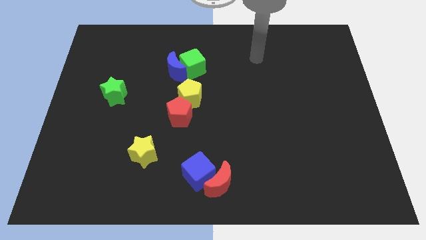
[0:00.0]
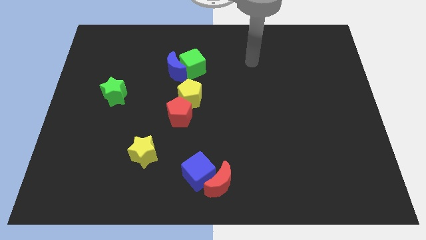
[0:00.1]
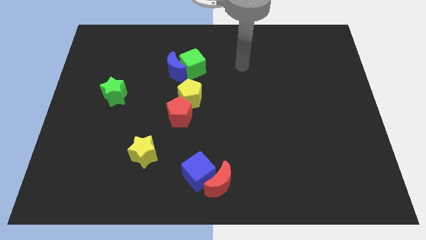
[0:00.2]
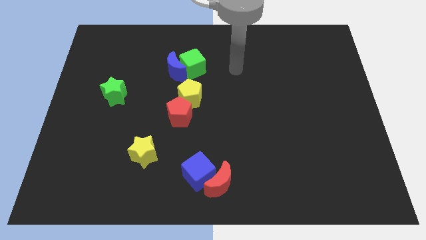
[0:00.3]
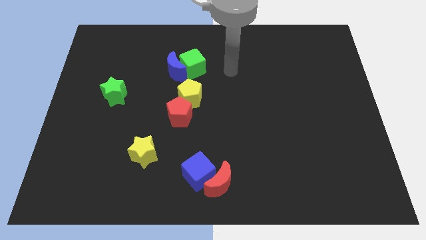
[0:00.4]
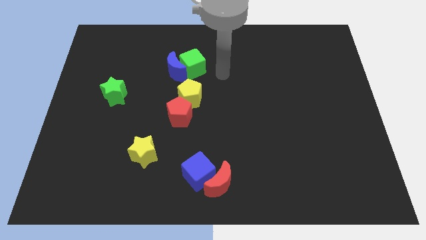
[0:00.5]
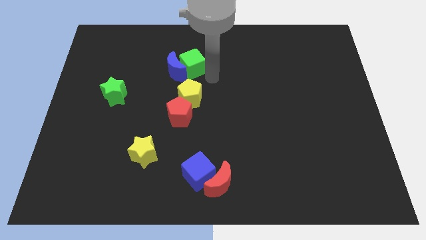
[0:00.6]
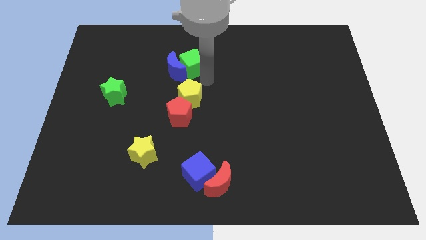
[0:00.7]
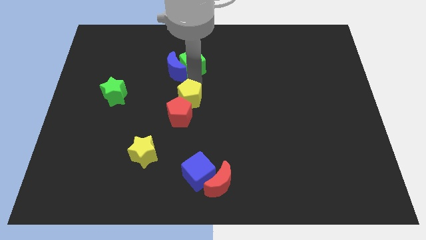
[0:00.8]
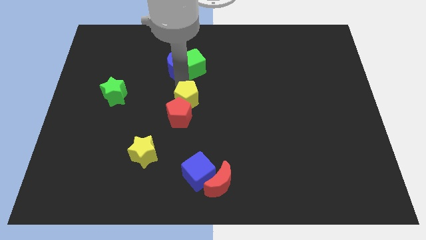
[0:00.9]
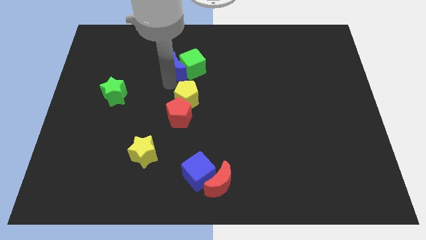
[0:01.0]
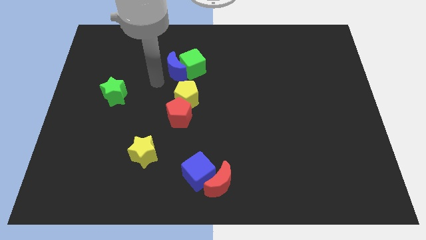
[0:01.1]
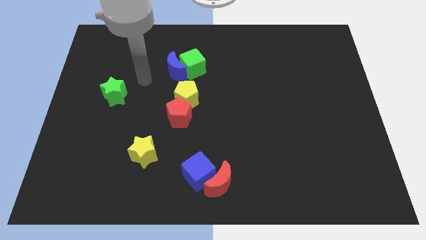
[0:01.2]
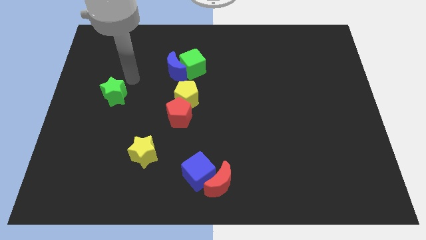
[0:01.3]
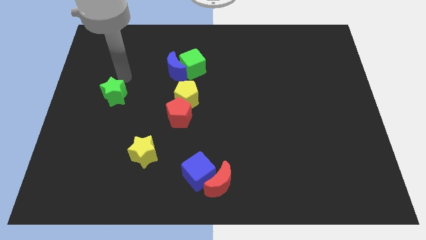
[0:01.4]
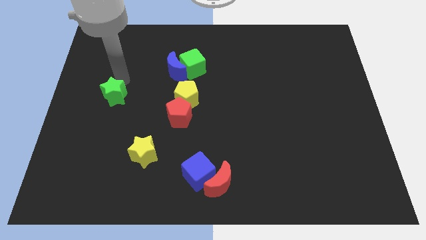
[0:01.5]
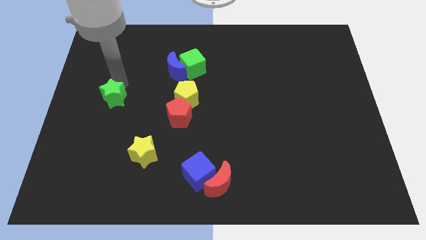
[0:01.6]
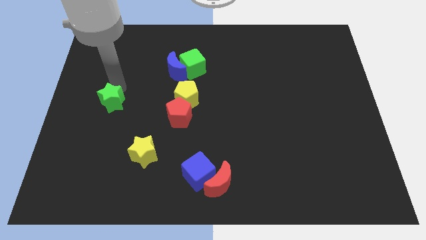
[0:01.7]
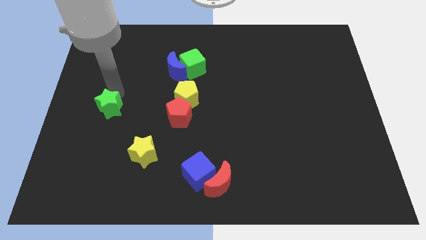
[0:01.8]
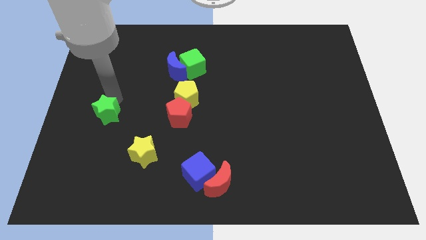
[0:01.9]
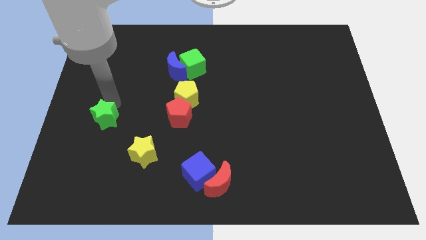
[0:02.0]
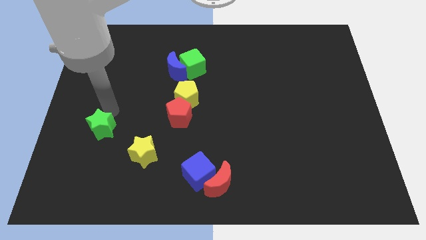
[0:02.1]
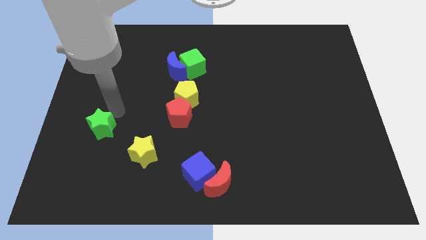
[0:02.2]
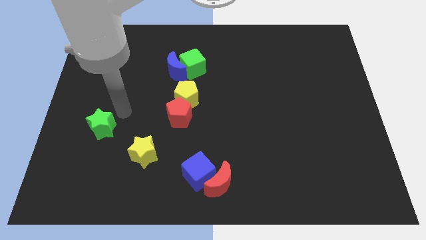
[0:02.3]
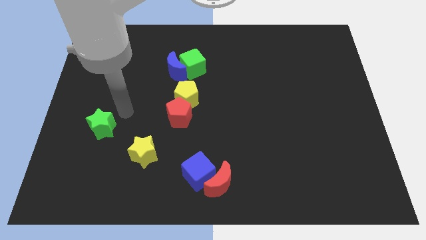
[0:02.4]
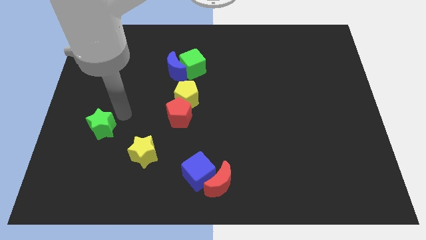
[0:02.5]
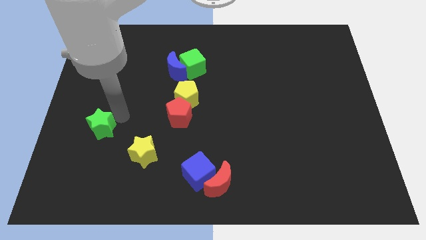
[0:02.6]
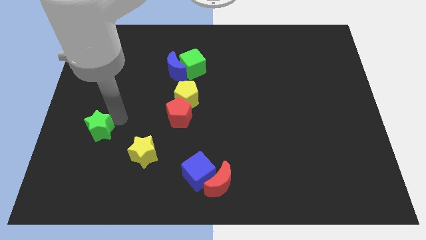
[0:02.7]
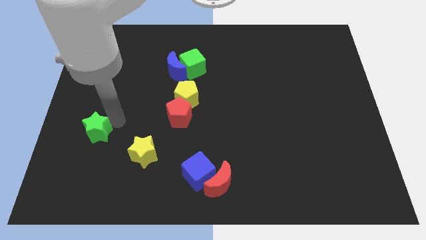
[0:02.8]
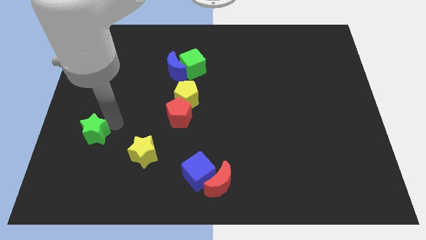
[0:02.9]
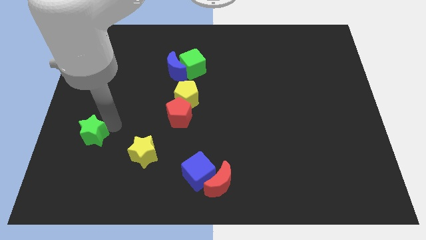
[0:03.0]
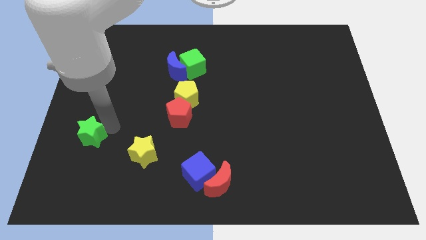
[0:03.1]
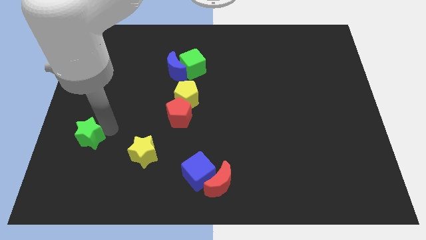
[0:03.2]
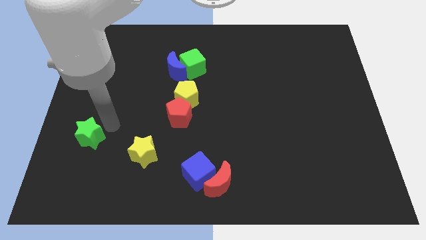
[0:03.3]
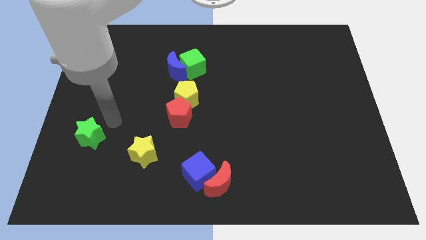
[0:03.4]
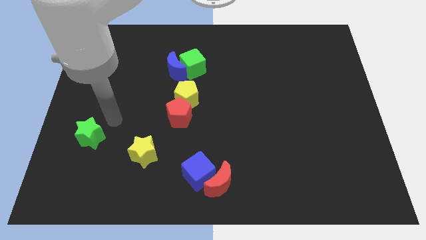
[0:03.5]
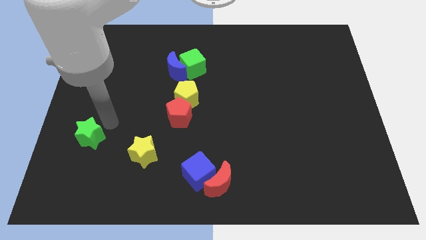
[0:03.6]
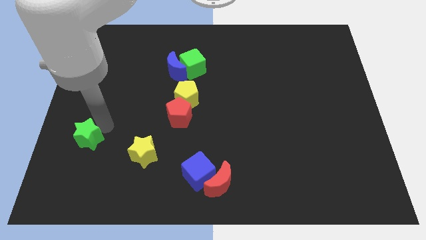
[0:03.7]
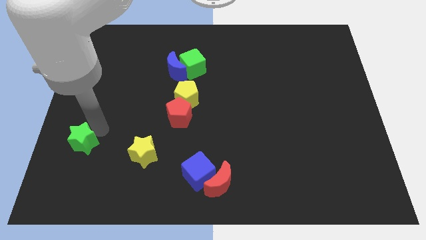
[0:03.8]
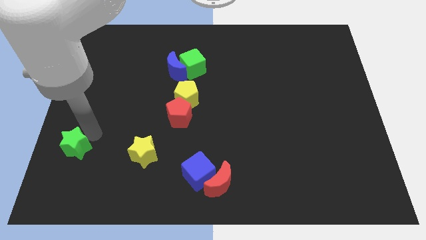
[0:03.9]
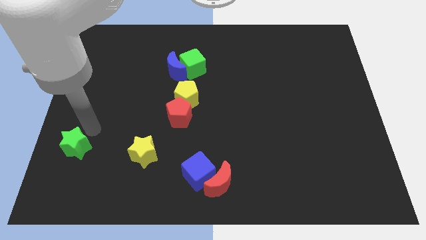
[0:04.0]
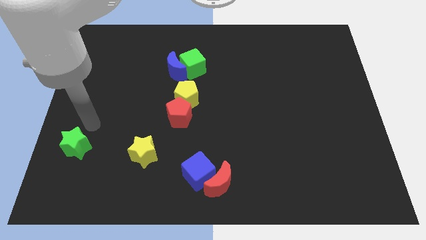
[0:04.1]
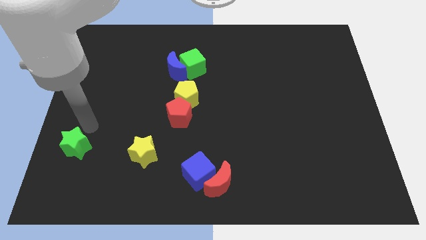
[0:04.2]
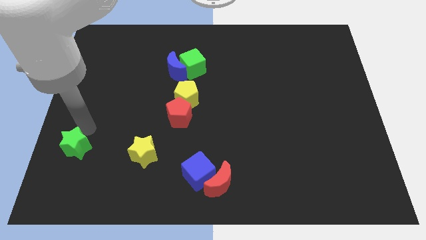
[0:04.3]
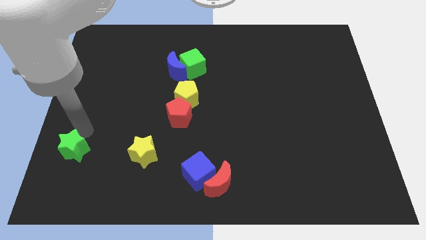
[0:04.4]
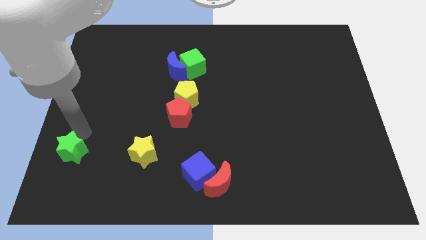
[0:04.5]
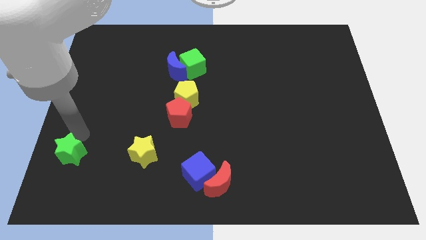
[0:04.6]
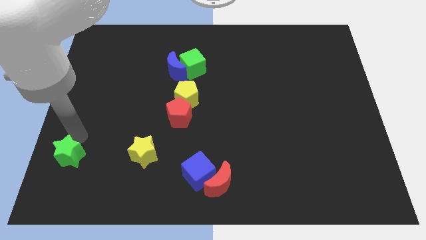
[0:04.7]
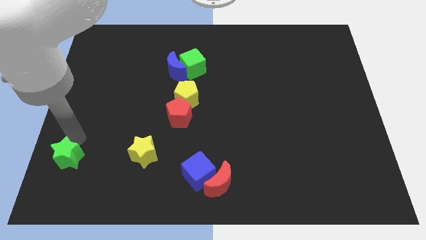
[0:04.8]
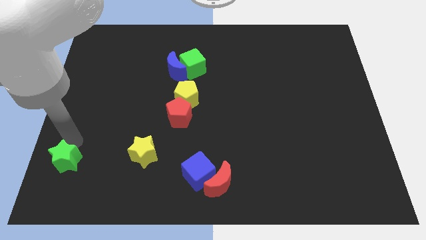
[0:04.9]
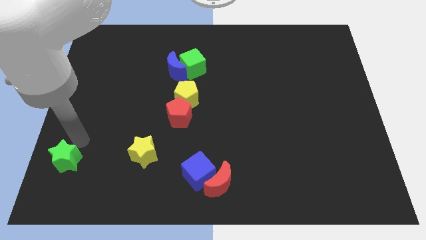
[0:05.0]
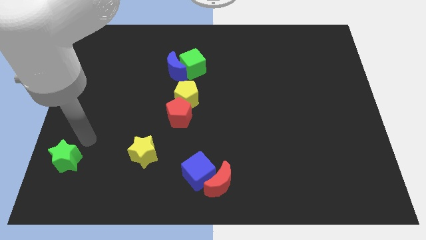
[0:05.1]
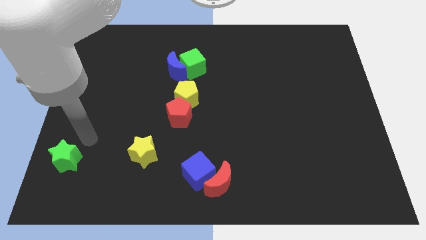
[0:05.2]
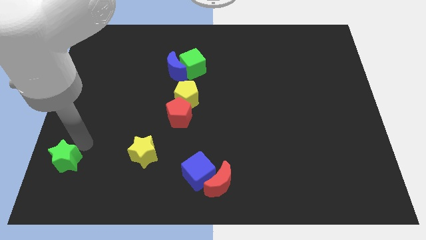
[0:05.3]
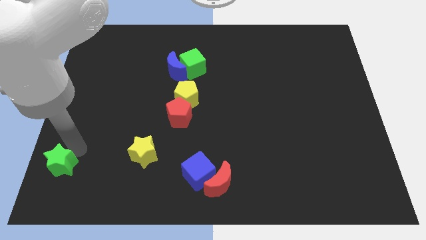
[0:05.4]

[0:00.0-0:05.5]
put the green star to the lower left corner
